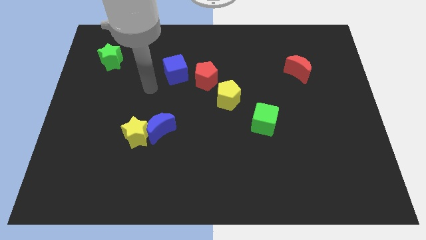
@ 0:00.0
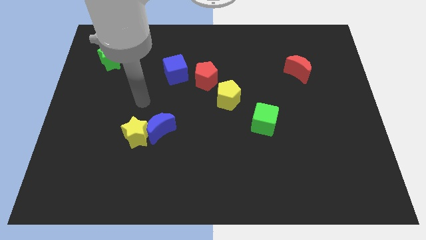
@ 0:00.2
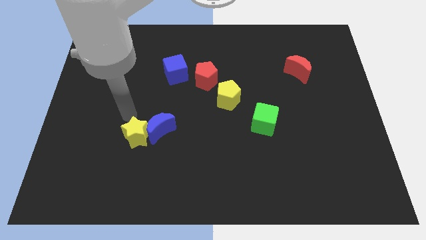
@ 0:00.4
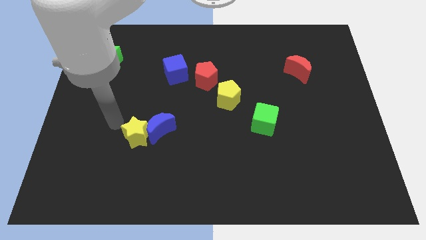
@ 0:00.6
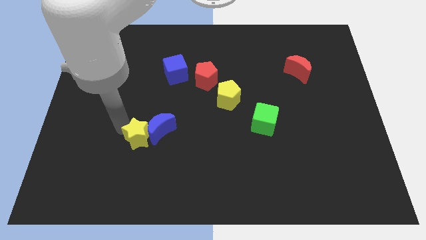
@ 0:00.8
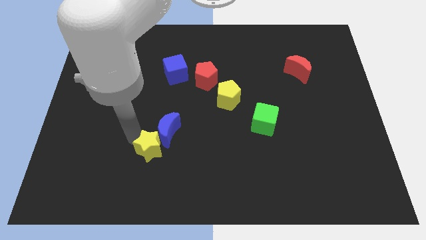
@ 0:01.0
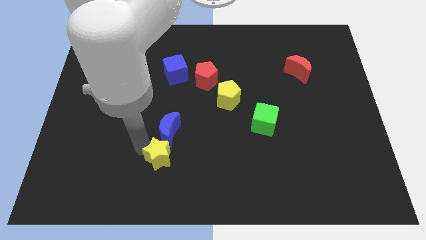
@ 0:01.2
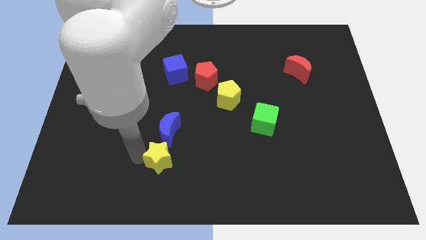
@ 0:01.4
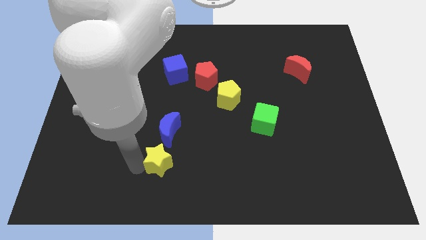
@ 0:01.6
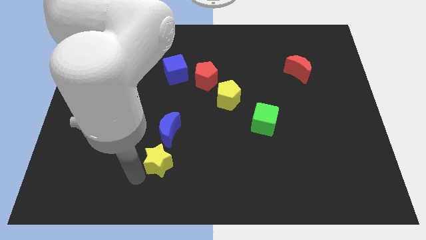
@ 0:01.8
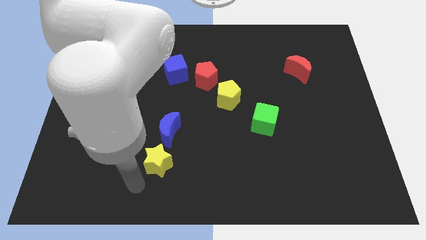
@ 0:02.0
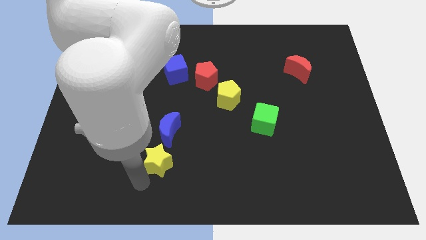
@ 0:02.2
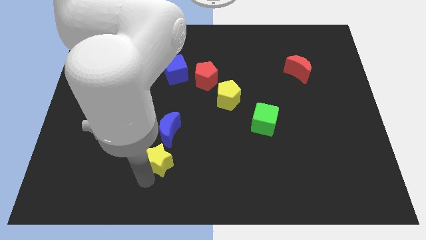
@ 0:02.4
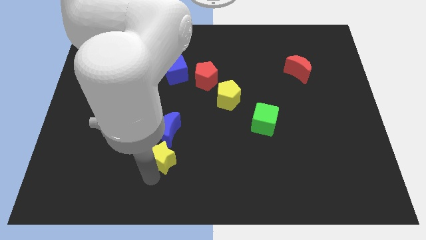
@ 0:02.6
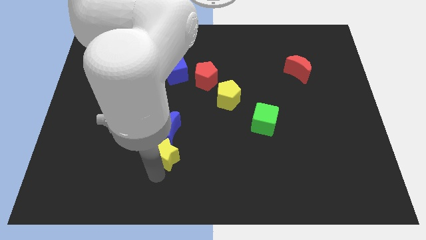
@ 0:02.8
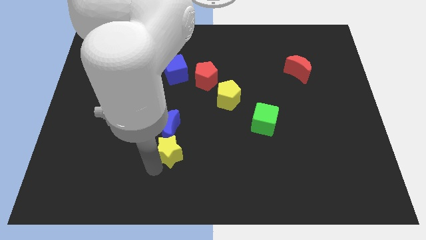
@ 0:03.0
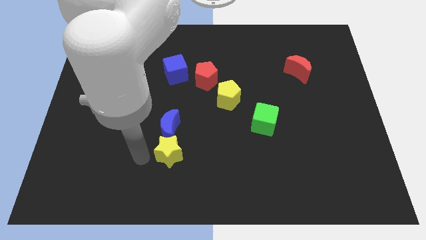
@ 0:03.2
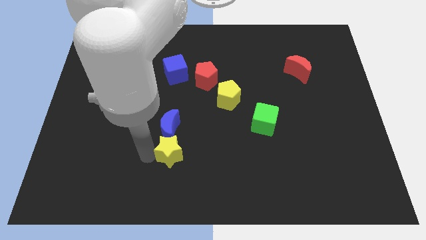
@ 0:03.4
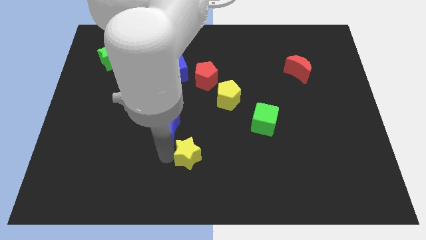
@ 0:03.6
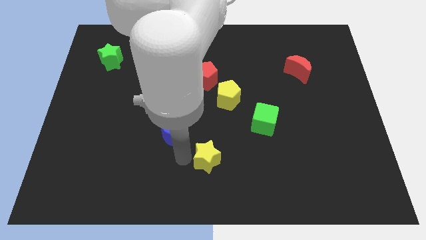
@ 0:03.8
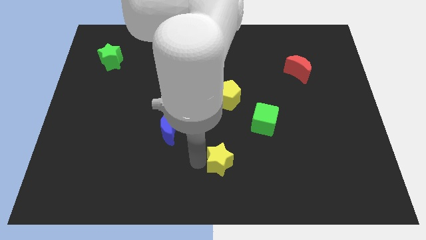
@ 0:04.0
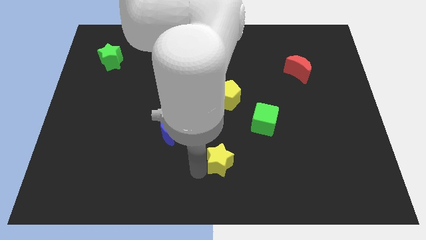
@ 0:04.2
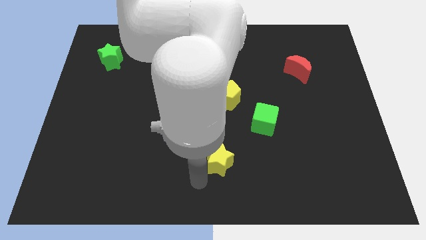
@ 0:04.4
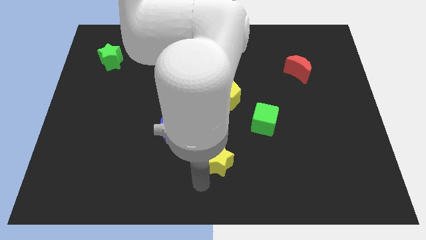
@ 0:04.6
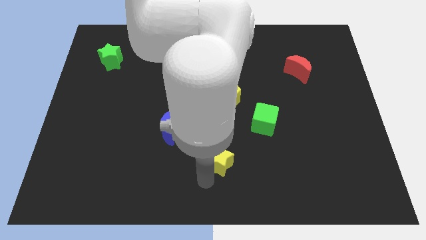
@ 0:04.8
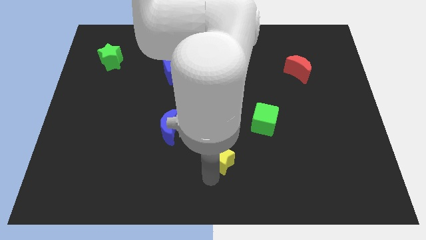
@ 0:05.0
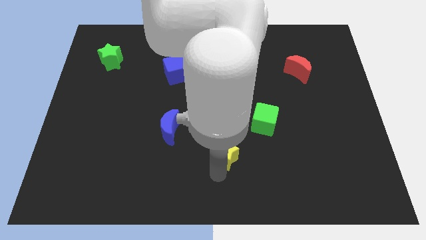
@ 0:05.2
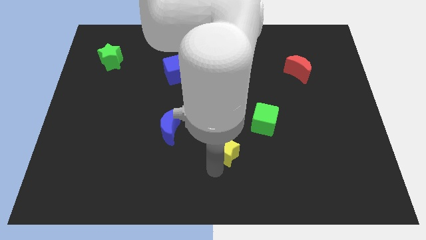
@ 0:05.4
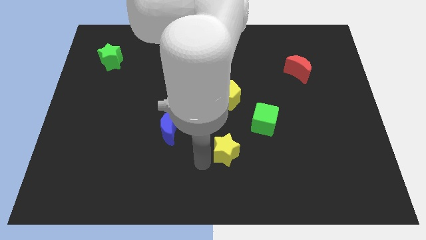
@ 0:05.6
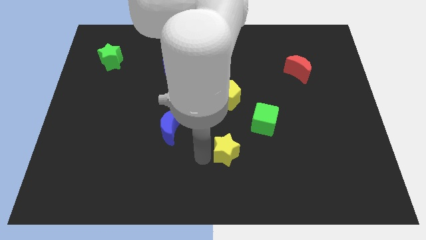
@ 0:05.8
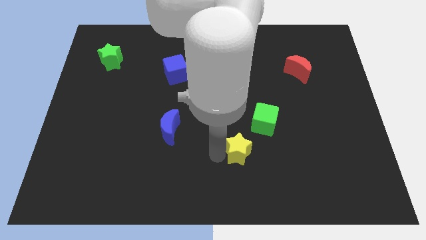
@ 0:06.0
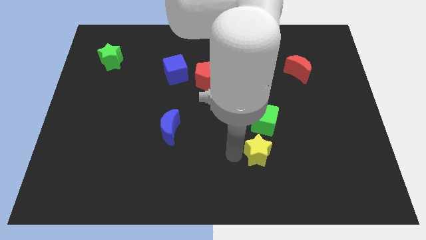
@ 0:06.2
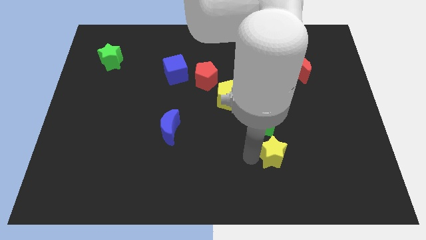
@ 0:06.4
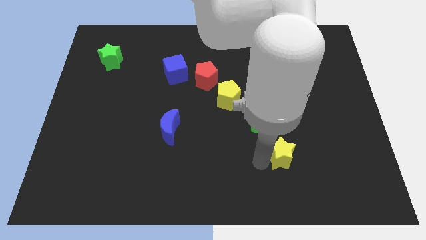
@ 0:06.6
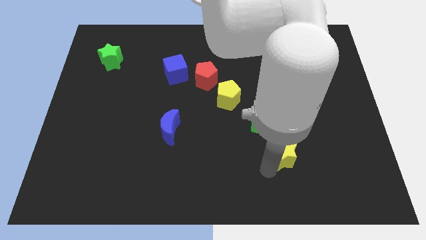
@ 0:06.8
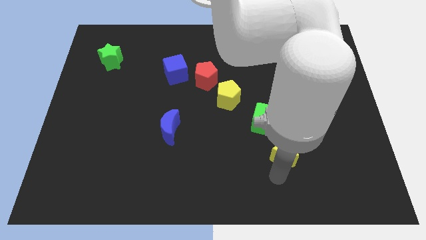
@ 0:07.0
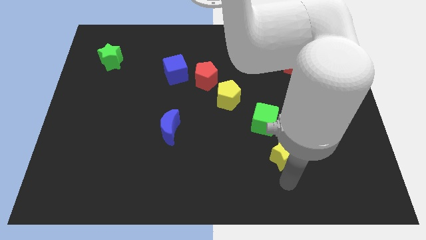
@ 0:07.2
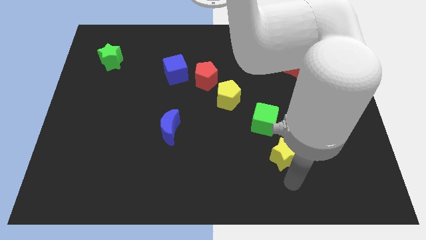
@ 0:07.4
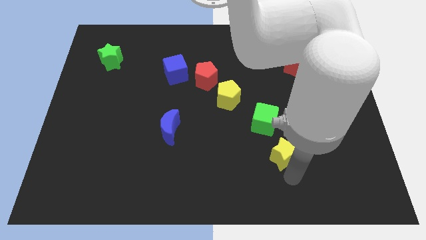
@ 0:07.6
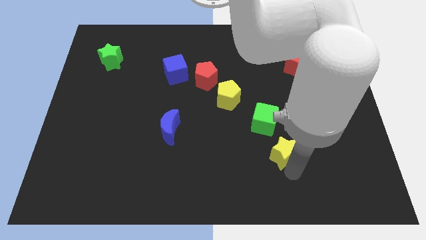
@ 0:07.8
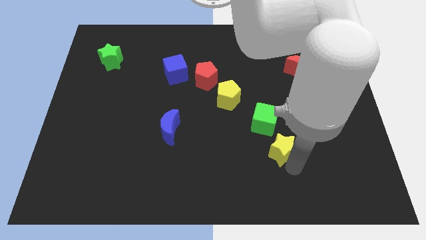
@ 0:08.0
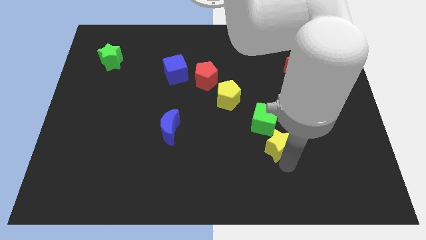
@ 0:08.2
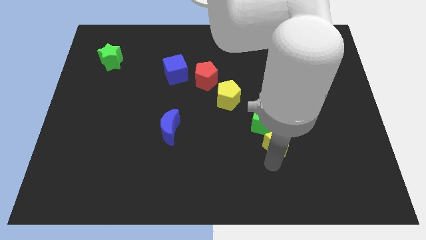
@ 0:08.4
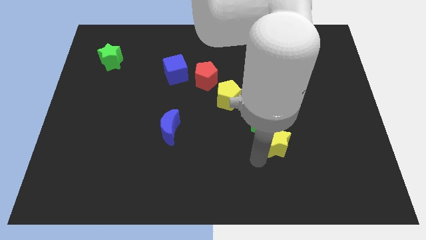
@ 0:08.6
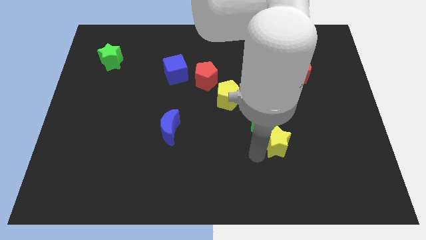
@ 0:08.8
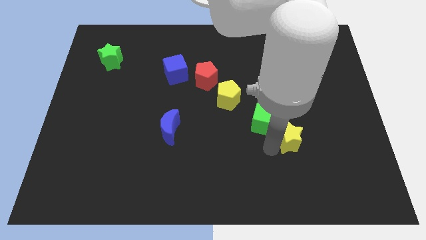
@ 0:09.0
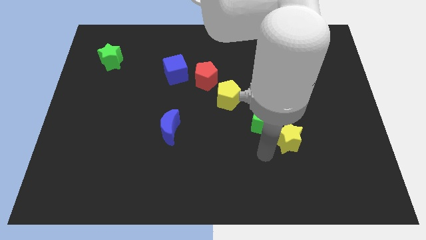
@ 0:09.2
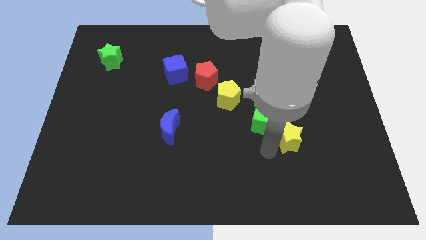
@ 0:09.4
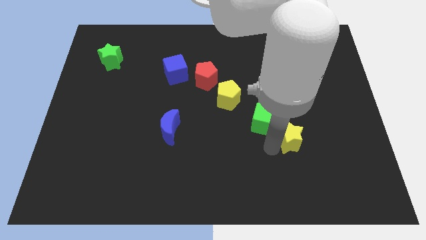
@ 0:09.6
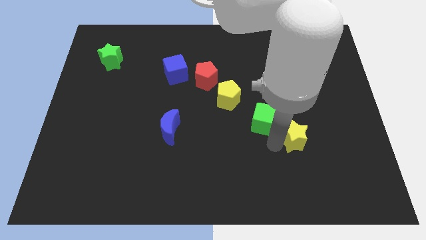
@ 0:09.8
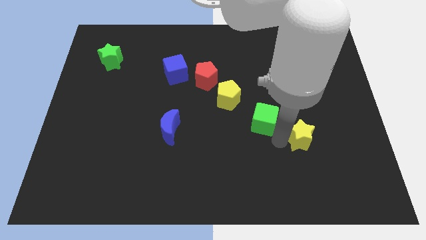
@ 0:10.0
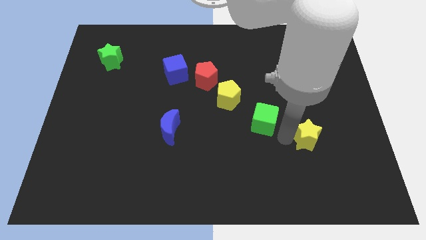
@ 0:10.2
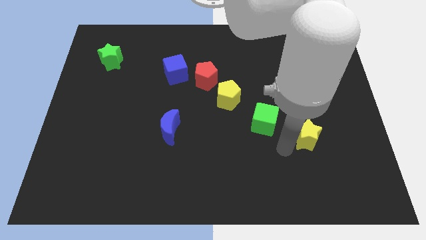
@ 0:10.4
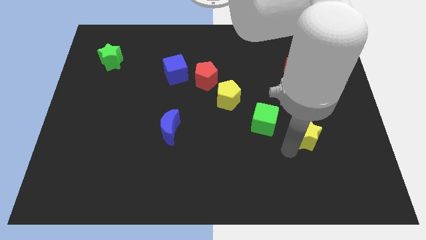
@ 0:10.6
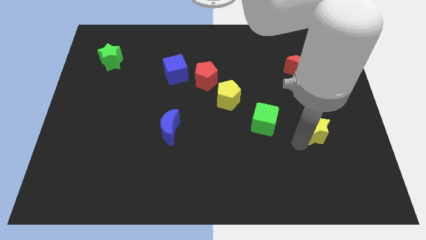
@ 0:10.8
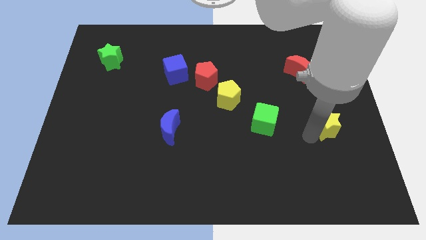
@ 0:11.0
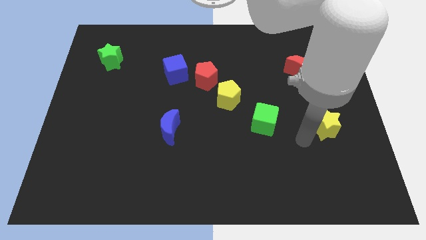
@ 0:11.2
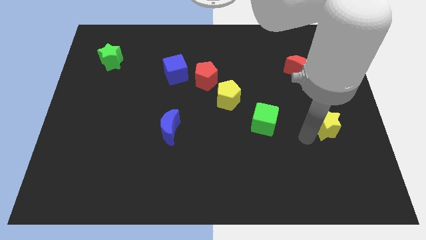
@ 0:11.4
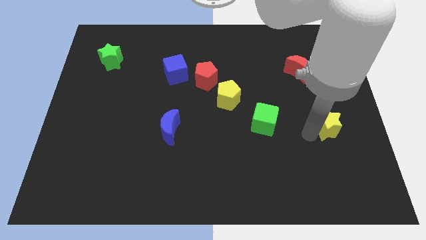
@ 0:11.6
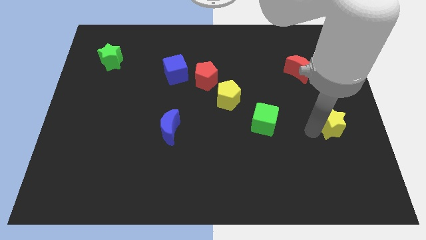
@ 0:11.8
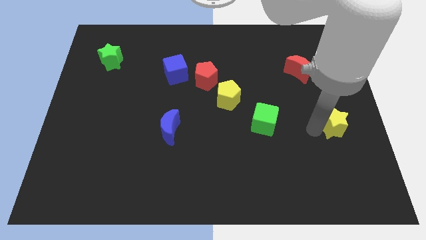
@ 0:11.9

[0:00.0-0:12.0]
put the yellow star to the right side of the board
